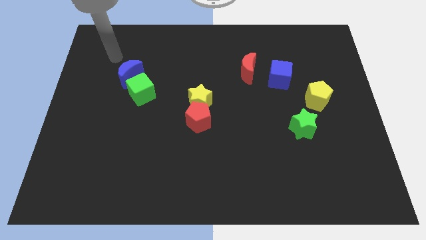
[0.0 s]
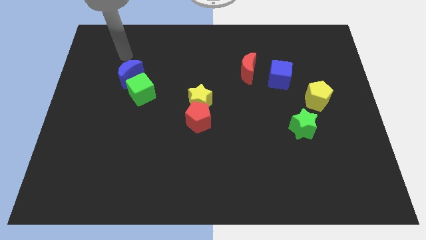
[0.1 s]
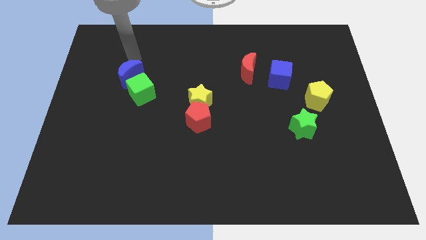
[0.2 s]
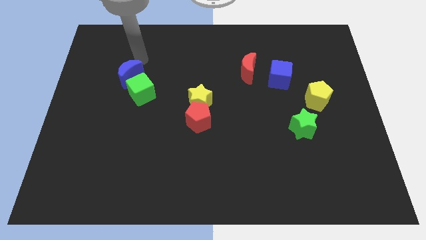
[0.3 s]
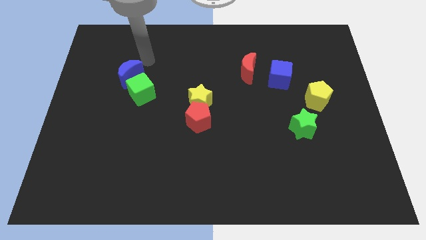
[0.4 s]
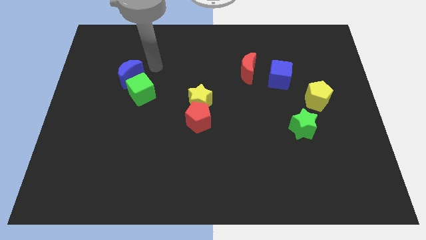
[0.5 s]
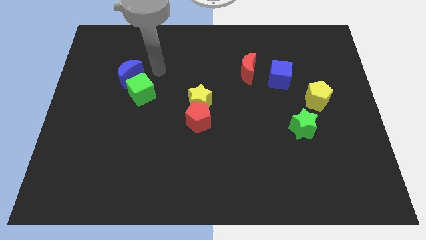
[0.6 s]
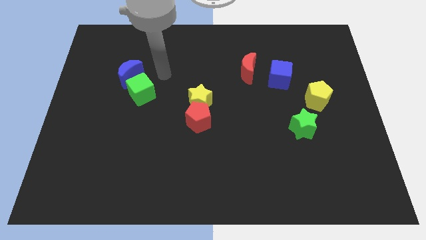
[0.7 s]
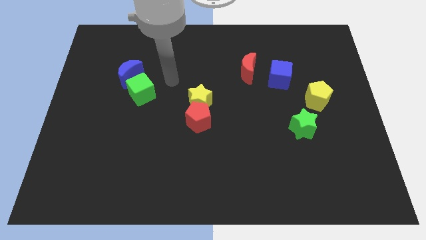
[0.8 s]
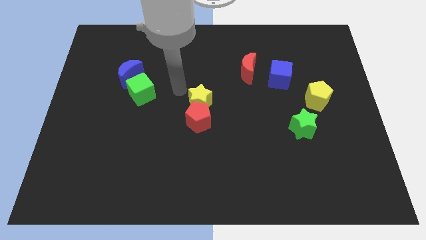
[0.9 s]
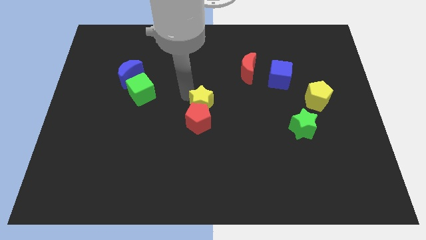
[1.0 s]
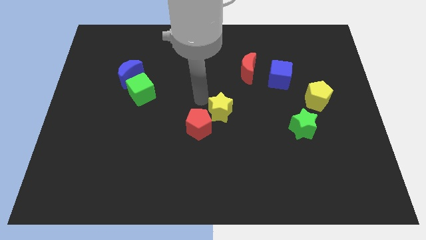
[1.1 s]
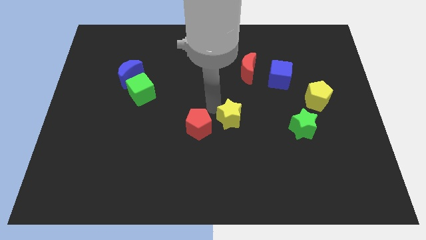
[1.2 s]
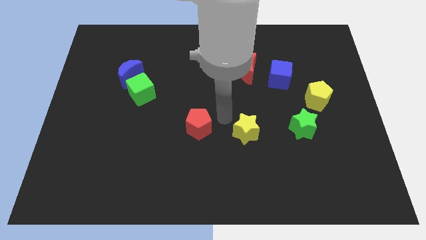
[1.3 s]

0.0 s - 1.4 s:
pull the red pentagon apart from the yellow star

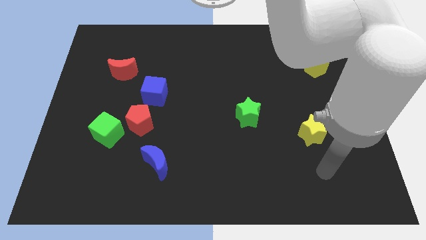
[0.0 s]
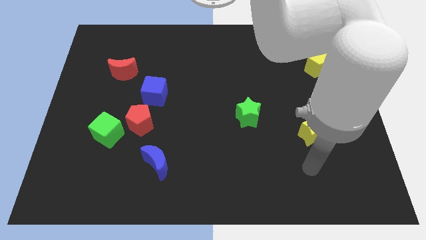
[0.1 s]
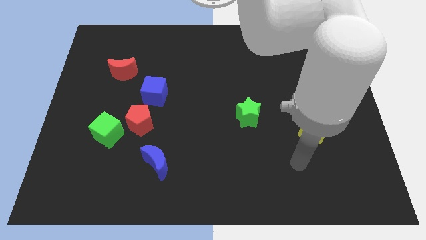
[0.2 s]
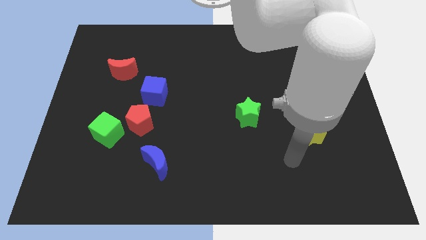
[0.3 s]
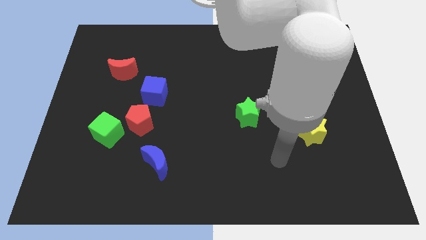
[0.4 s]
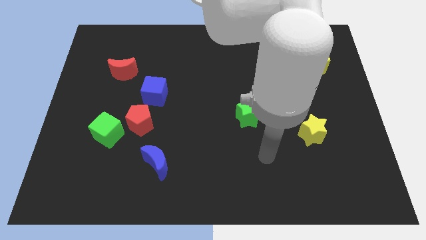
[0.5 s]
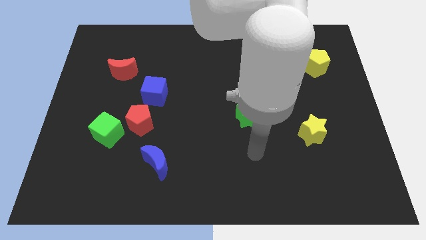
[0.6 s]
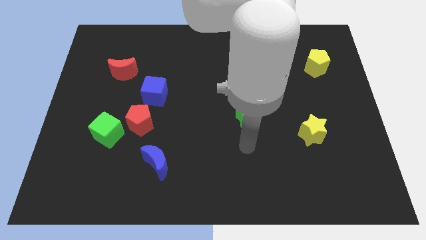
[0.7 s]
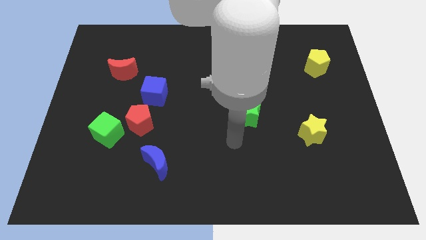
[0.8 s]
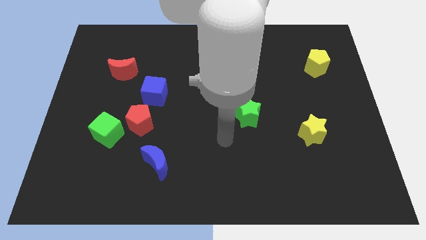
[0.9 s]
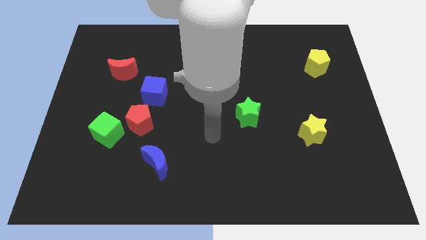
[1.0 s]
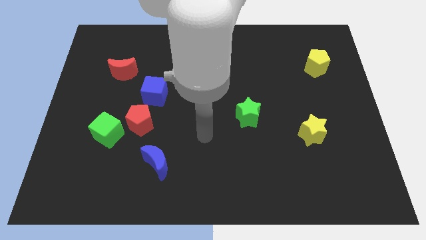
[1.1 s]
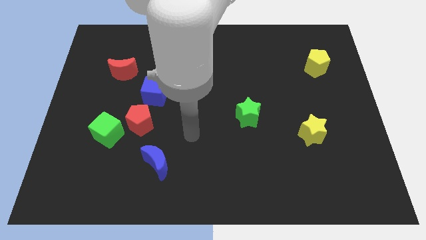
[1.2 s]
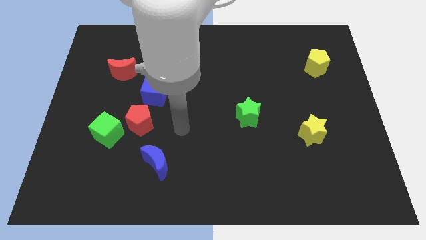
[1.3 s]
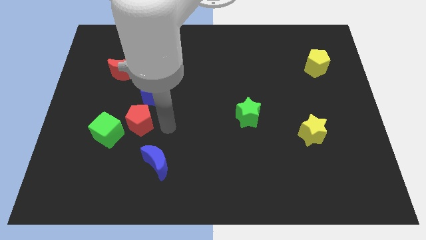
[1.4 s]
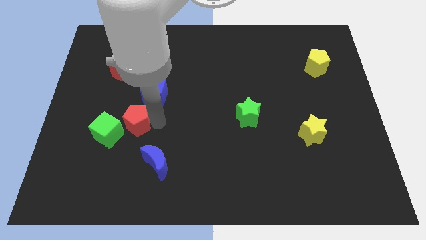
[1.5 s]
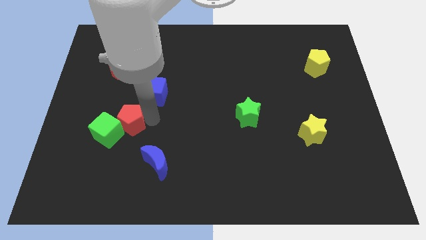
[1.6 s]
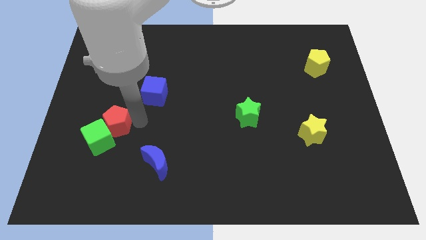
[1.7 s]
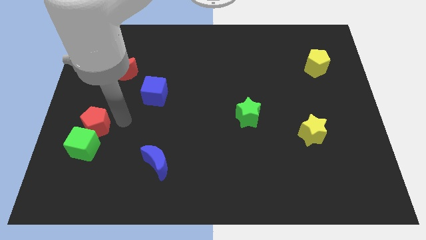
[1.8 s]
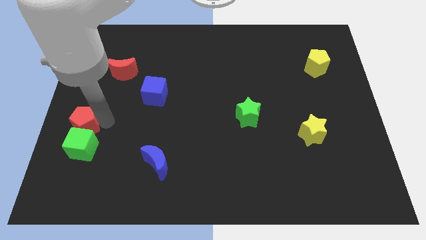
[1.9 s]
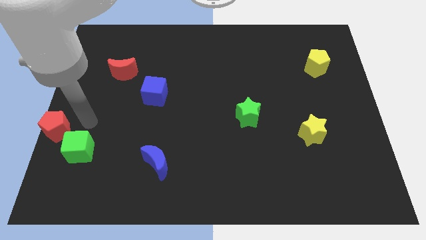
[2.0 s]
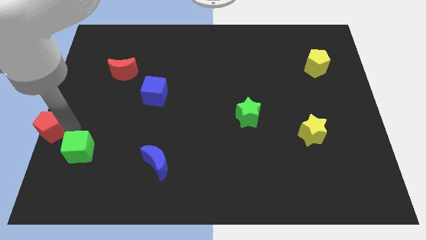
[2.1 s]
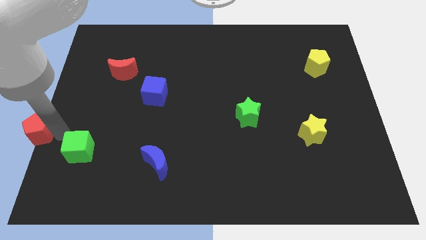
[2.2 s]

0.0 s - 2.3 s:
pull the green cube apart from the red pentagon

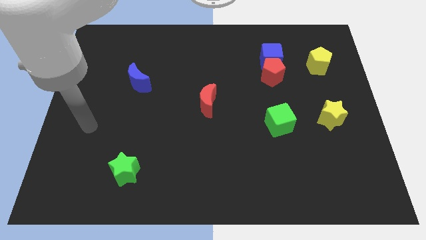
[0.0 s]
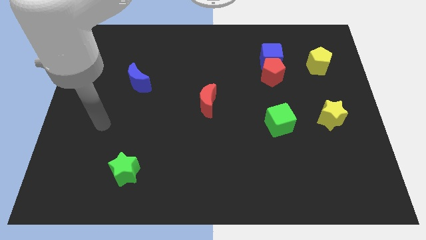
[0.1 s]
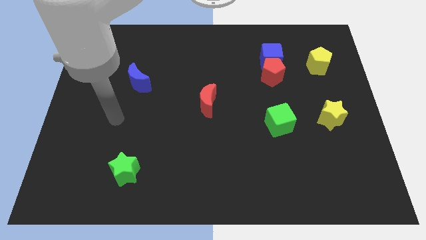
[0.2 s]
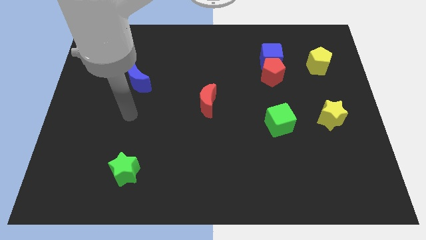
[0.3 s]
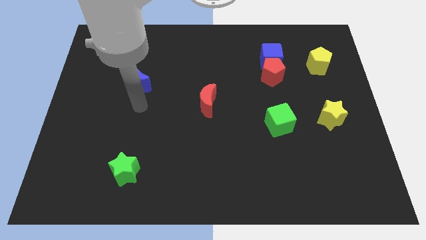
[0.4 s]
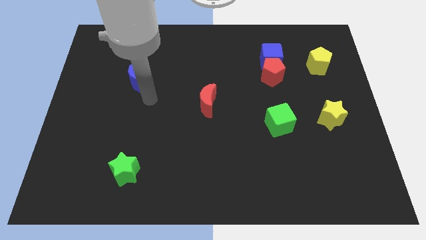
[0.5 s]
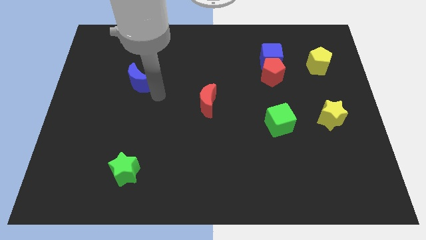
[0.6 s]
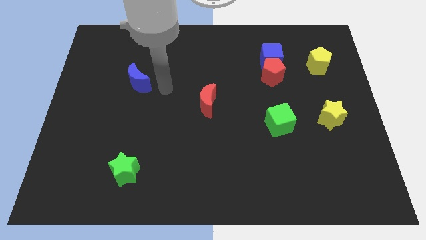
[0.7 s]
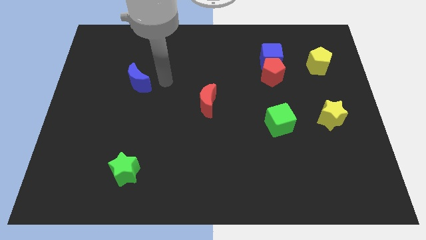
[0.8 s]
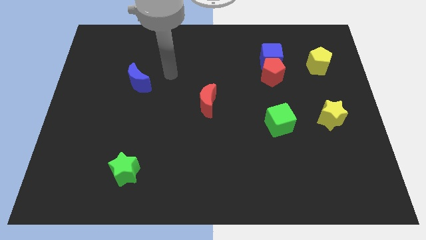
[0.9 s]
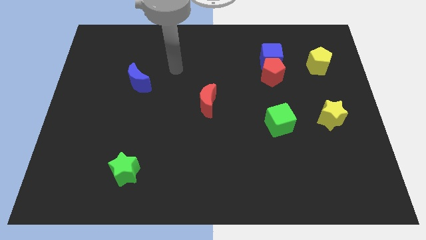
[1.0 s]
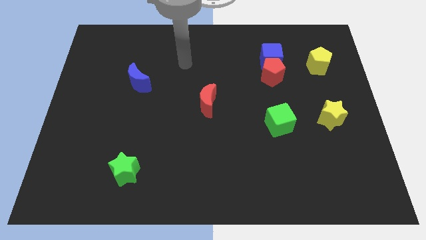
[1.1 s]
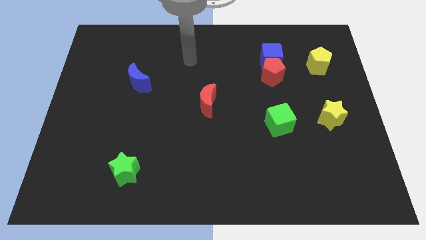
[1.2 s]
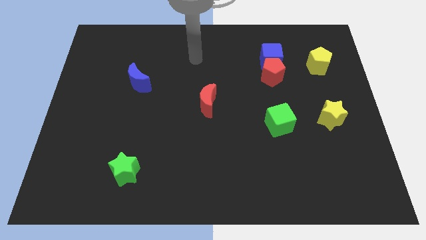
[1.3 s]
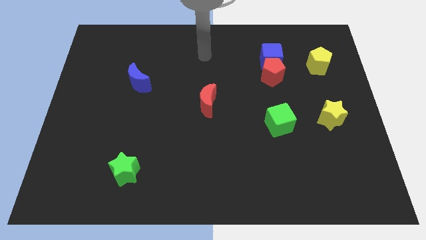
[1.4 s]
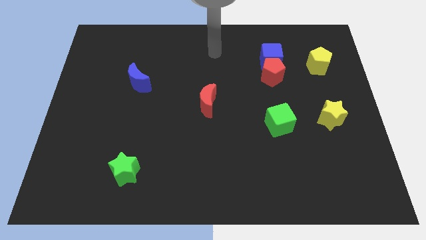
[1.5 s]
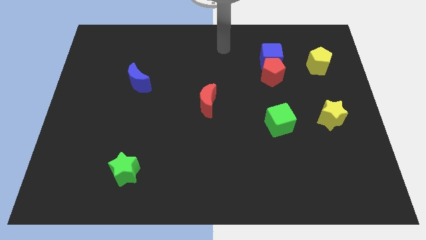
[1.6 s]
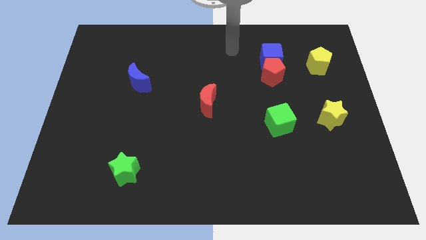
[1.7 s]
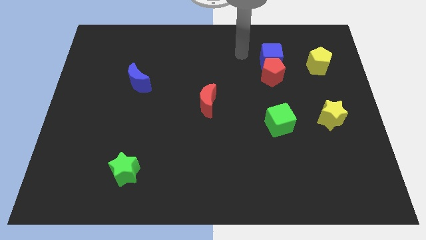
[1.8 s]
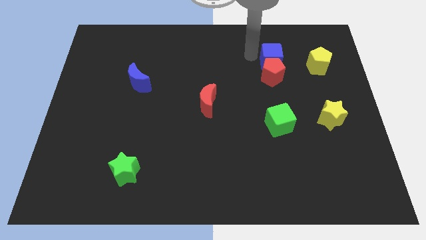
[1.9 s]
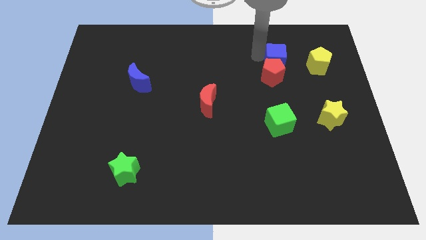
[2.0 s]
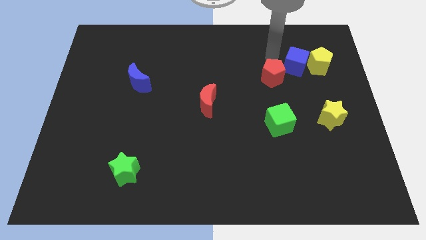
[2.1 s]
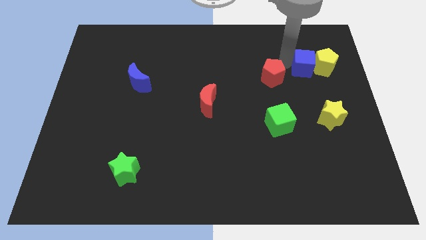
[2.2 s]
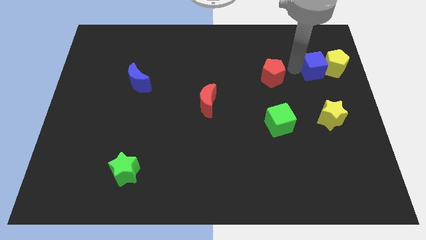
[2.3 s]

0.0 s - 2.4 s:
move the red pentagon away from the blue cube

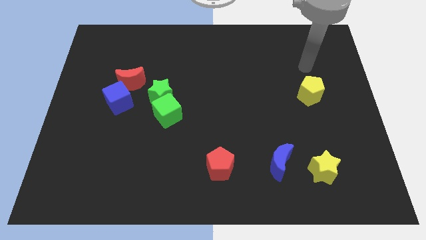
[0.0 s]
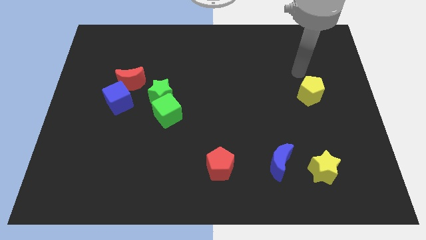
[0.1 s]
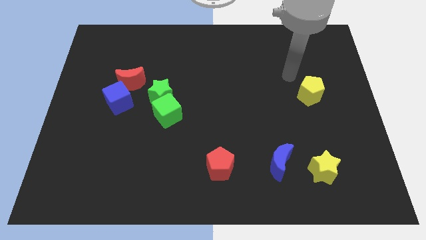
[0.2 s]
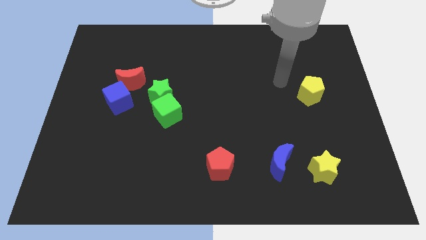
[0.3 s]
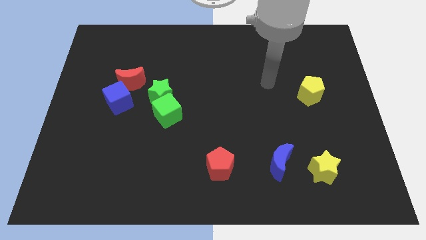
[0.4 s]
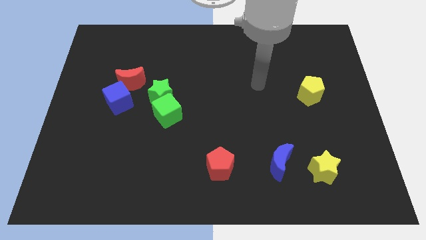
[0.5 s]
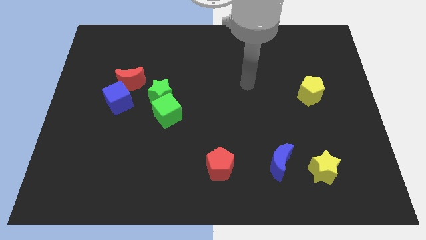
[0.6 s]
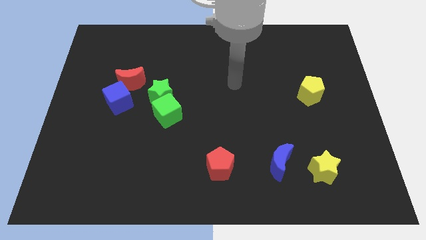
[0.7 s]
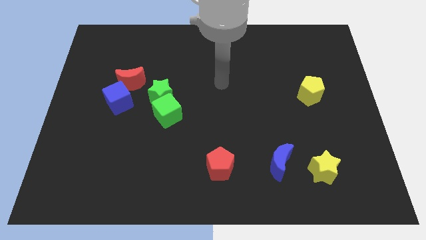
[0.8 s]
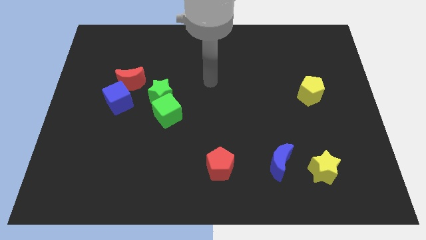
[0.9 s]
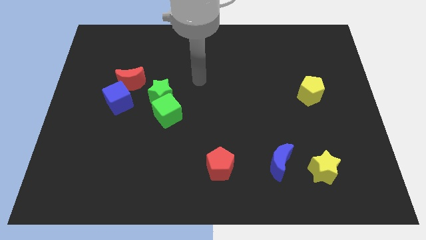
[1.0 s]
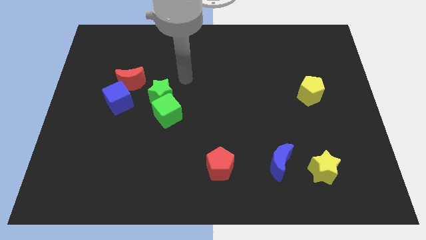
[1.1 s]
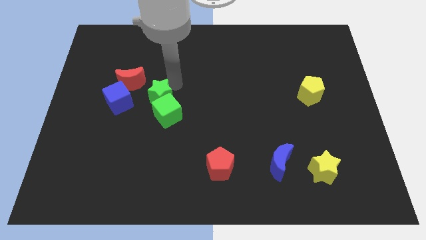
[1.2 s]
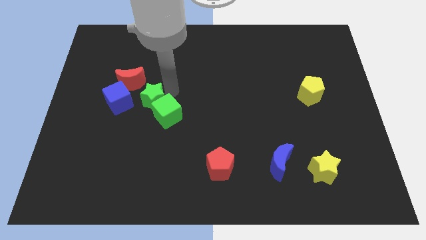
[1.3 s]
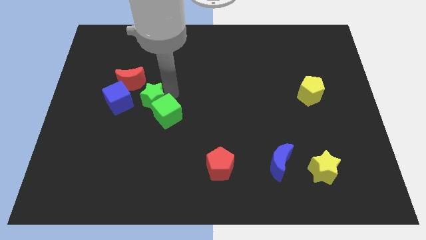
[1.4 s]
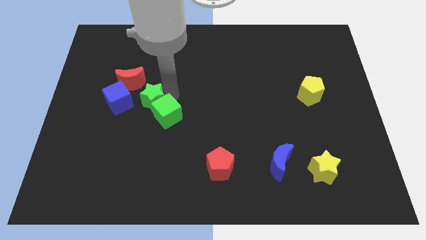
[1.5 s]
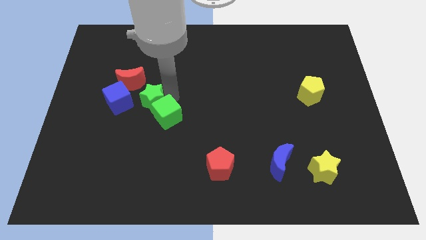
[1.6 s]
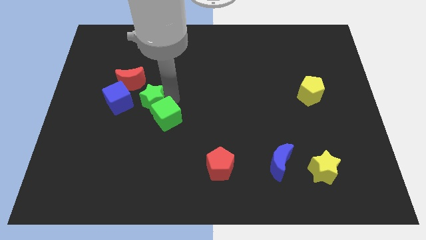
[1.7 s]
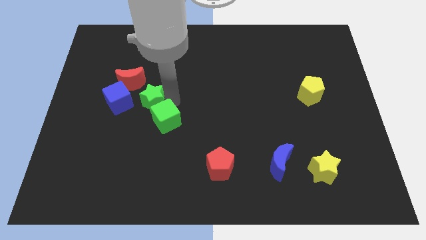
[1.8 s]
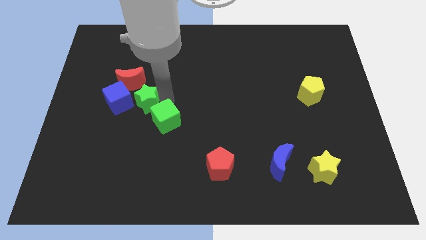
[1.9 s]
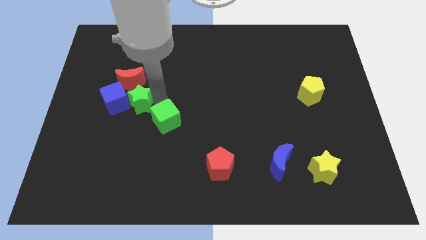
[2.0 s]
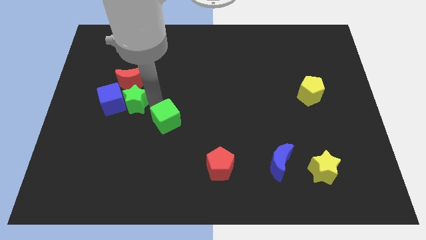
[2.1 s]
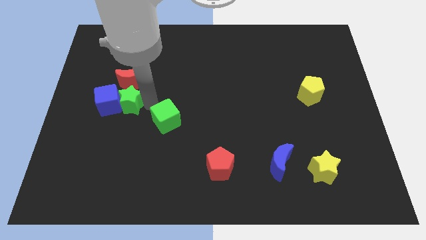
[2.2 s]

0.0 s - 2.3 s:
move the green cube away from the green star

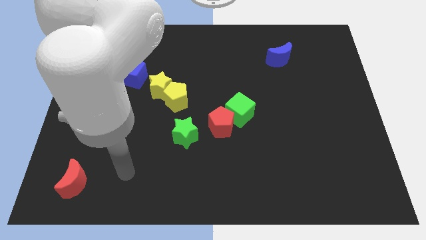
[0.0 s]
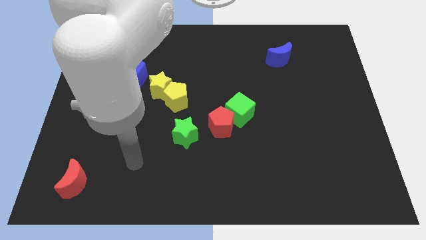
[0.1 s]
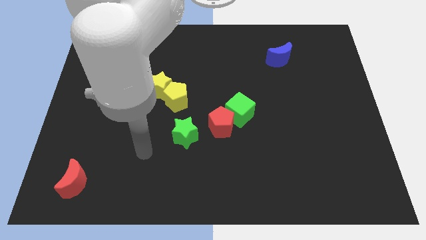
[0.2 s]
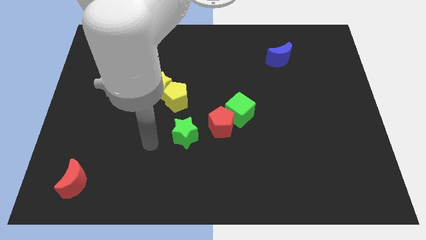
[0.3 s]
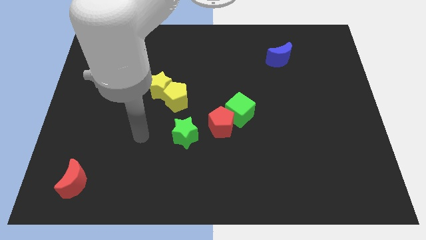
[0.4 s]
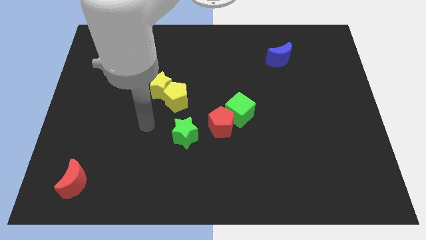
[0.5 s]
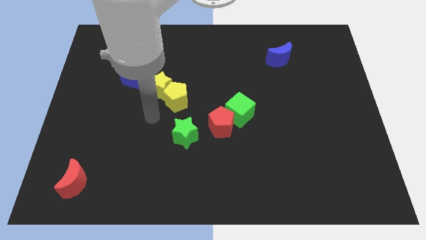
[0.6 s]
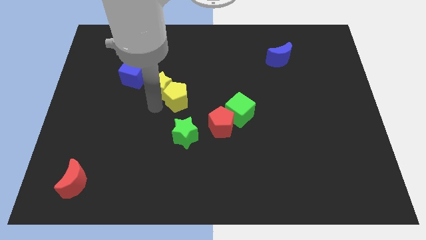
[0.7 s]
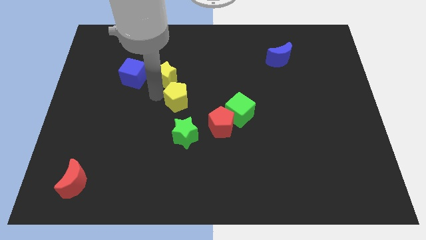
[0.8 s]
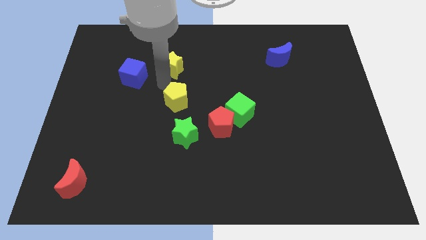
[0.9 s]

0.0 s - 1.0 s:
move the yellow pentagon away from the yellow star

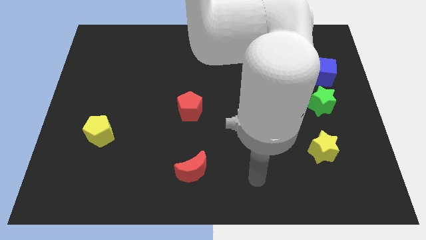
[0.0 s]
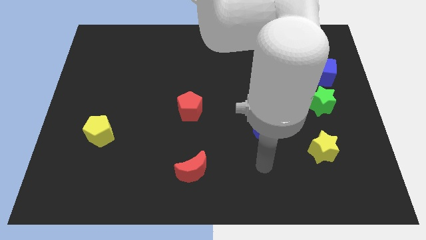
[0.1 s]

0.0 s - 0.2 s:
separate the blue cube from the green star
